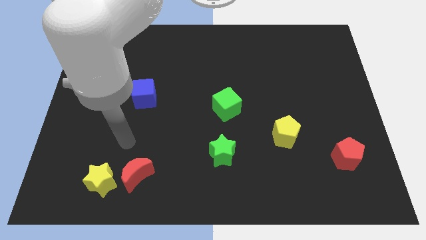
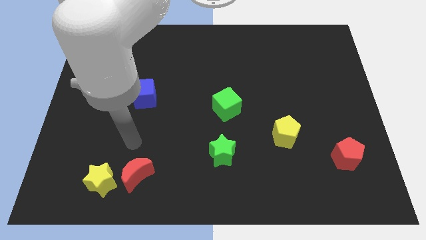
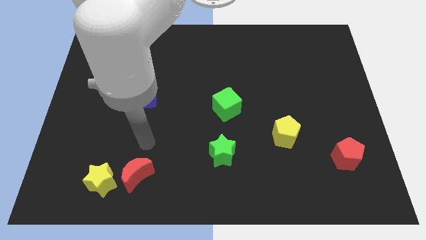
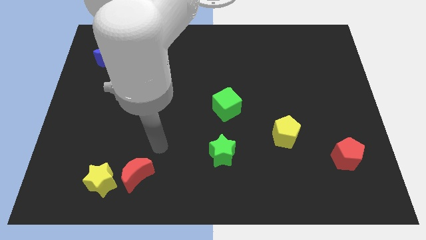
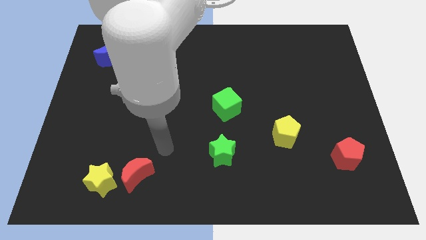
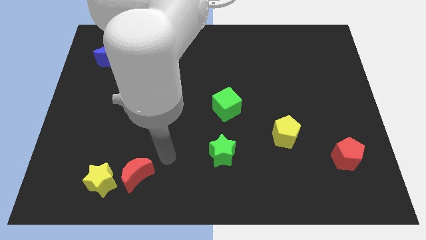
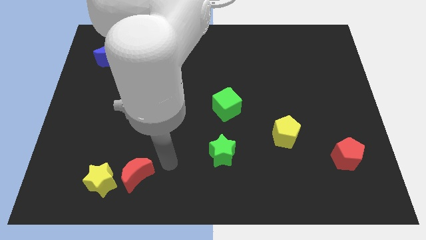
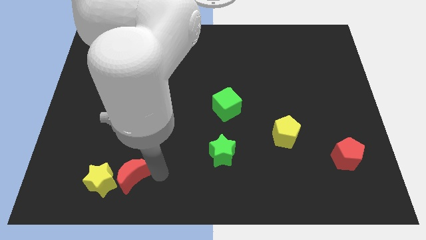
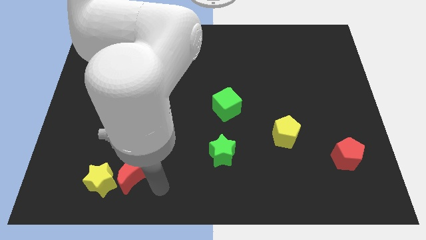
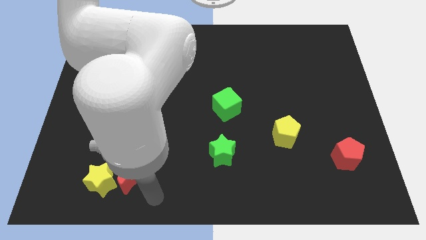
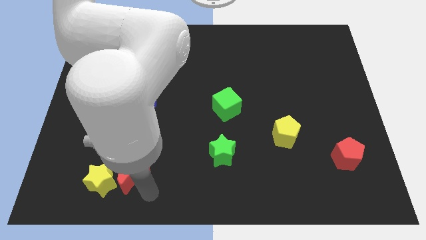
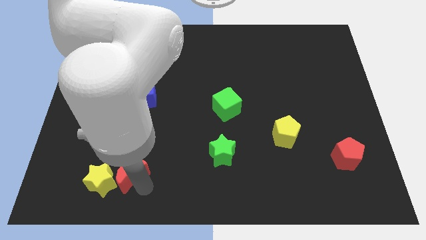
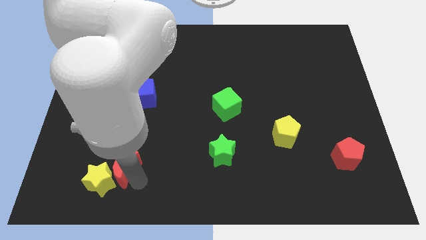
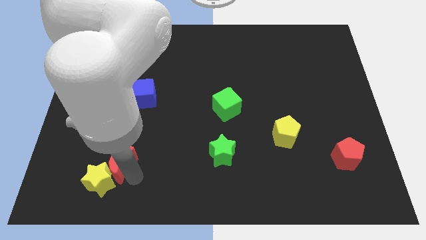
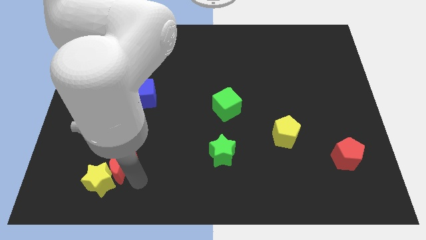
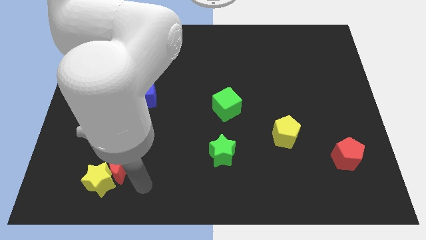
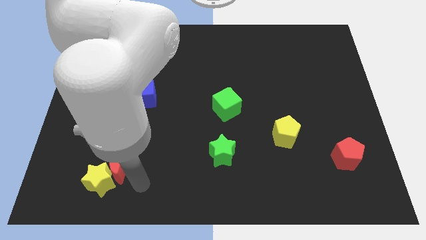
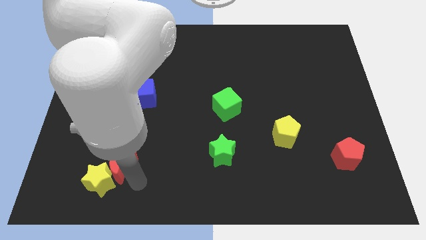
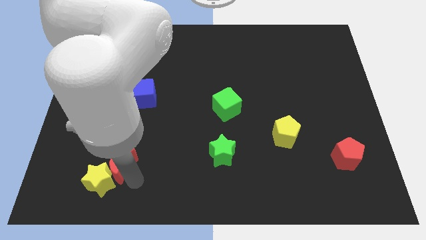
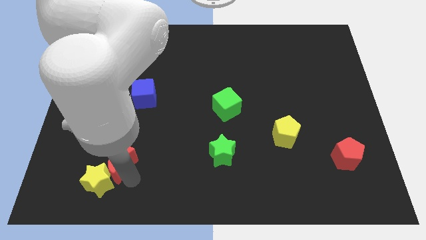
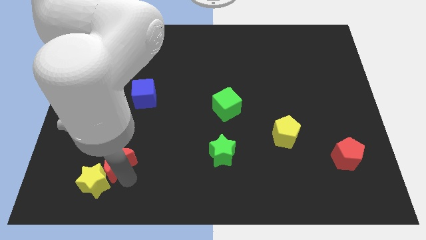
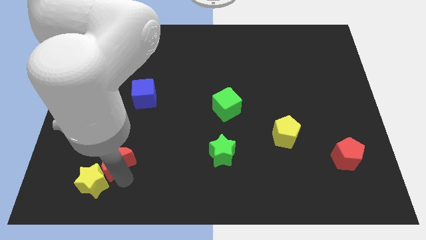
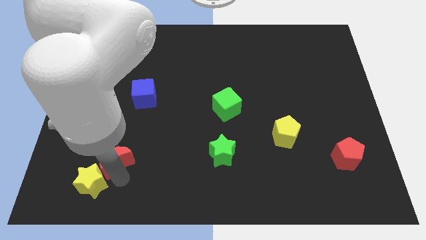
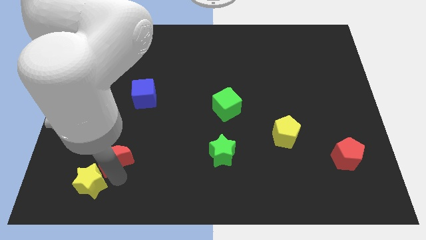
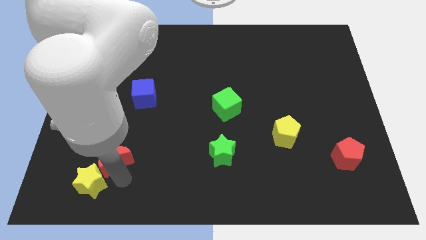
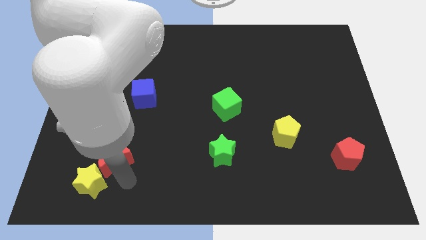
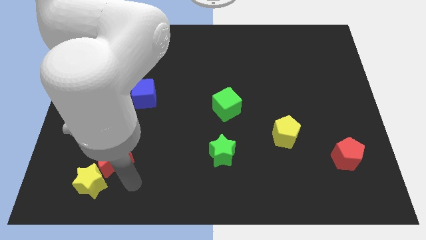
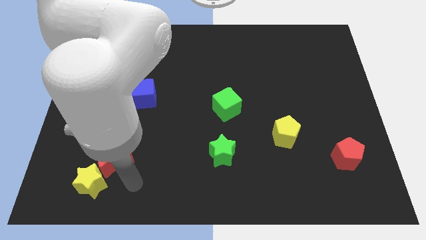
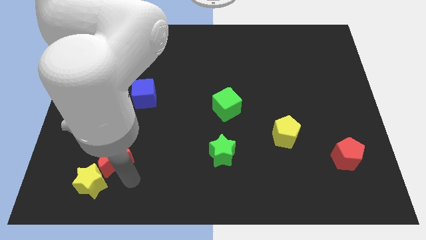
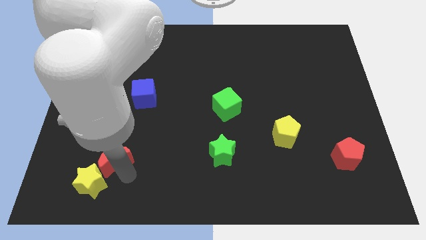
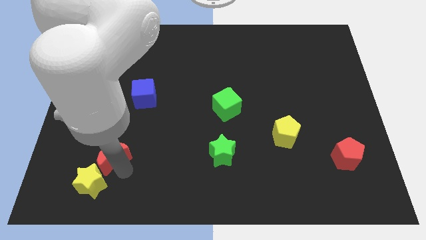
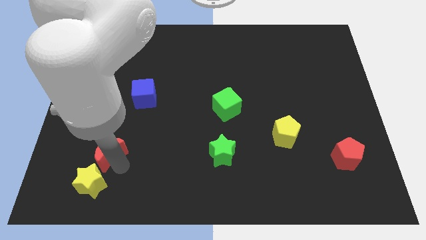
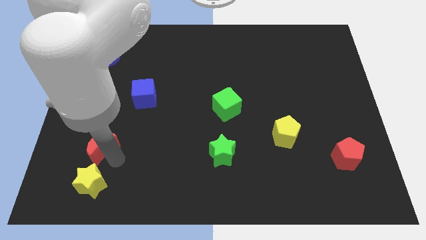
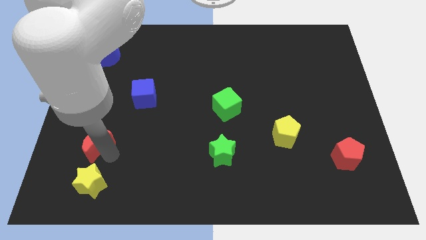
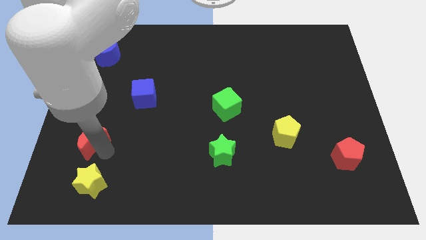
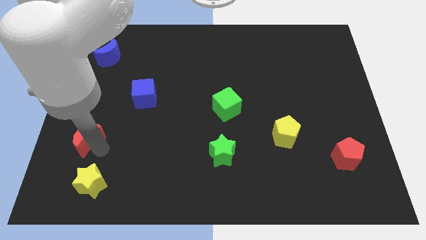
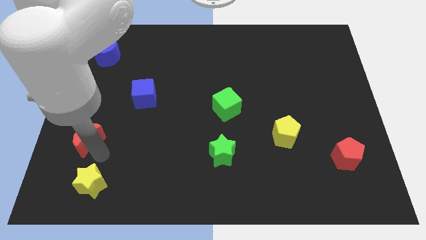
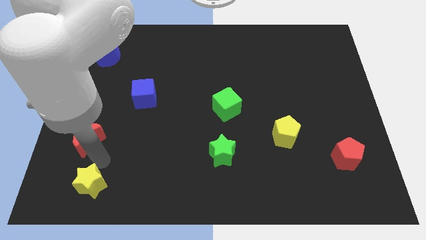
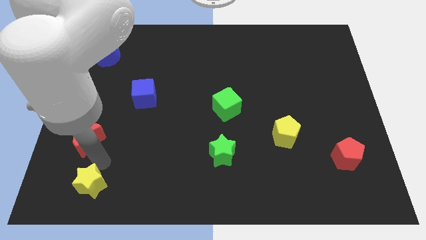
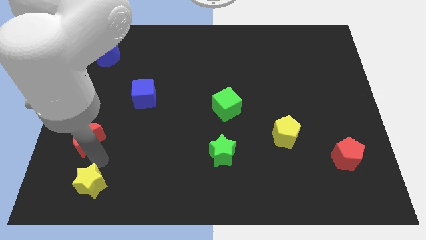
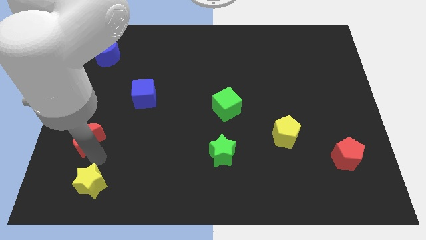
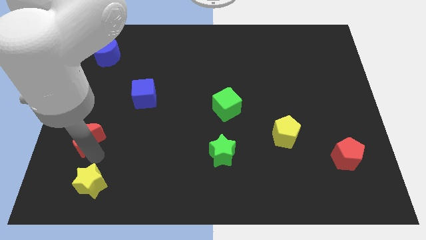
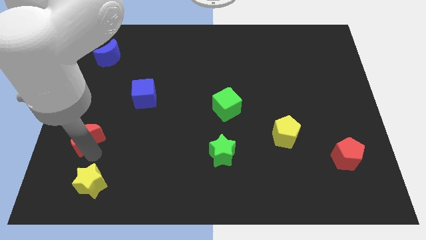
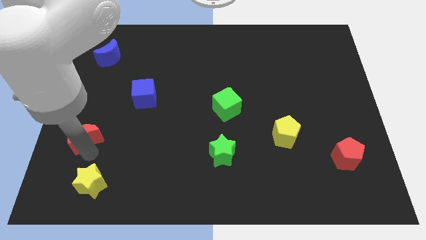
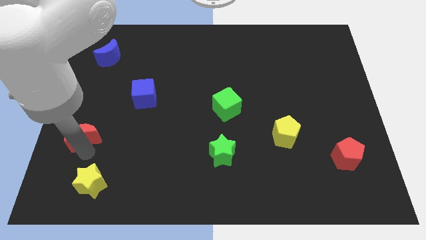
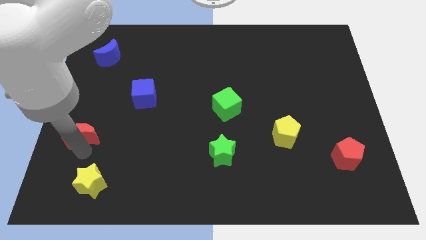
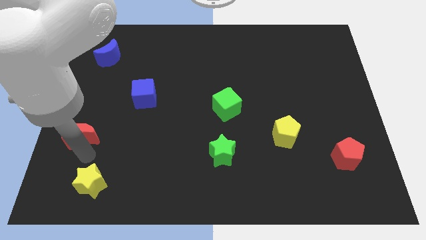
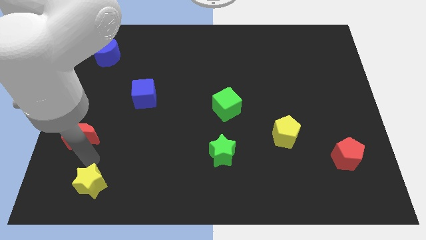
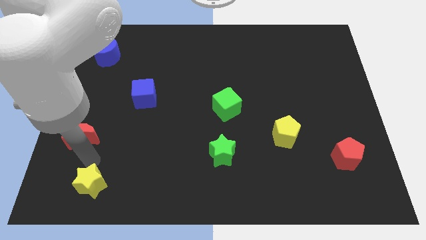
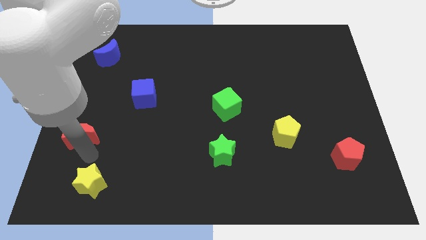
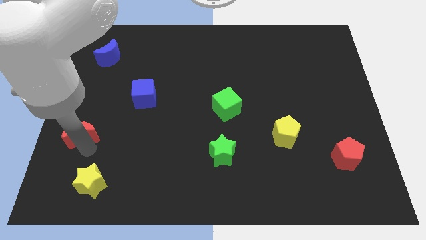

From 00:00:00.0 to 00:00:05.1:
slide the red moon to the center left

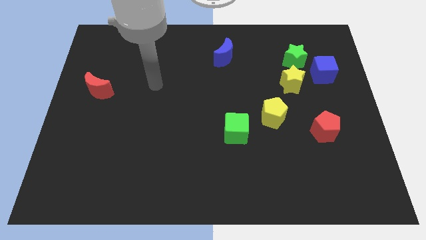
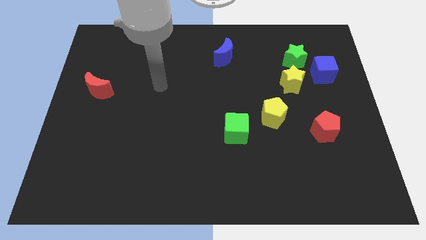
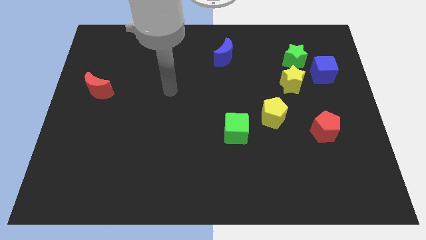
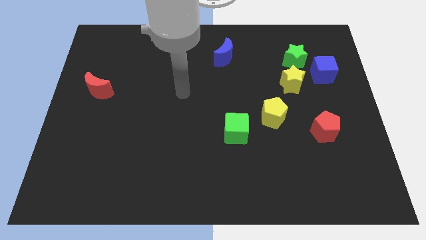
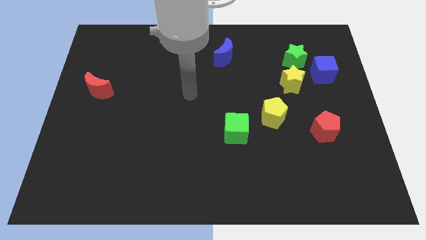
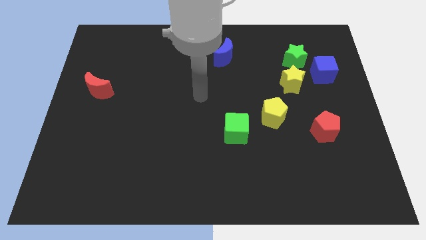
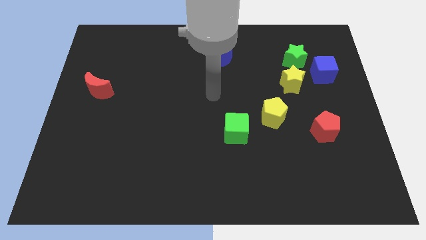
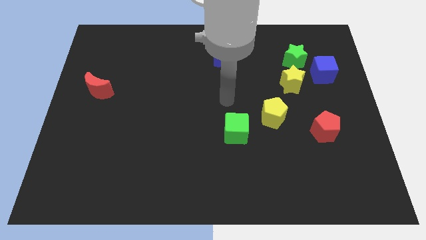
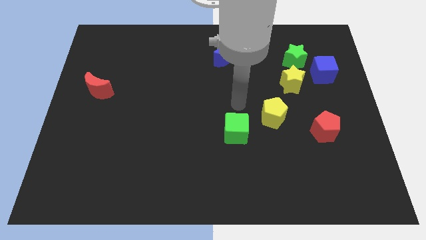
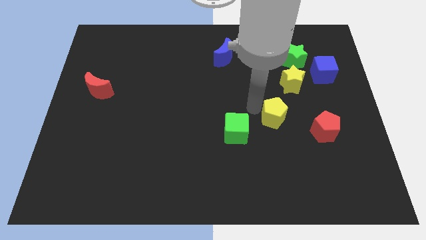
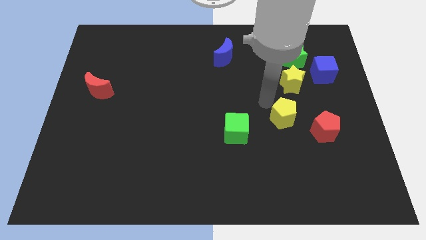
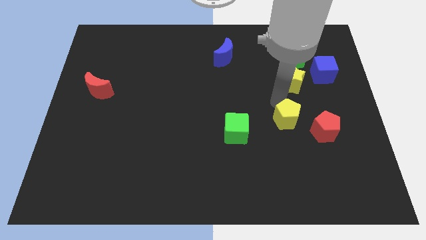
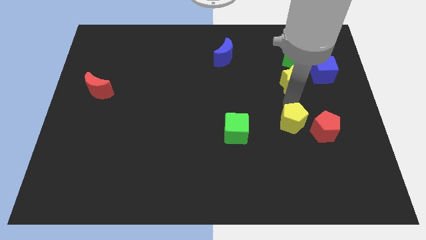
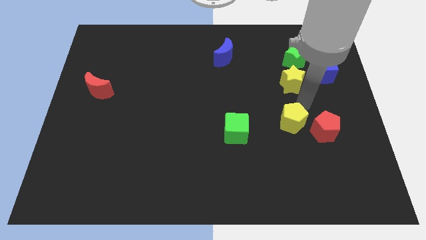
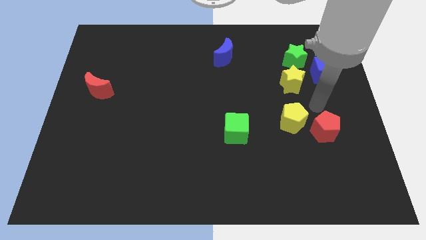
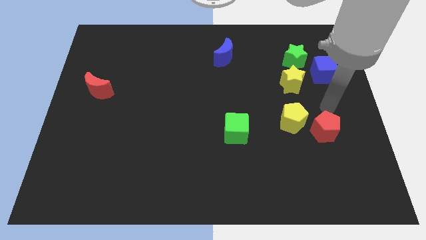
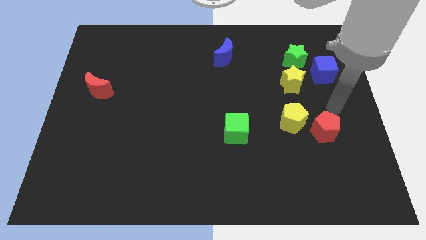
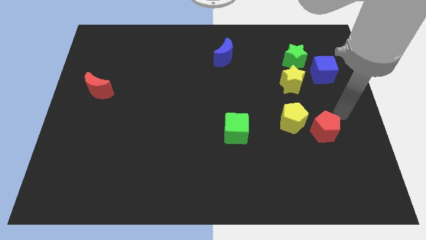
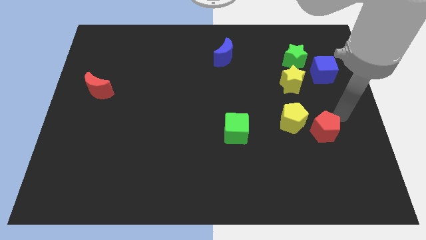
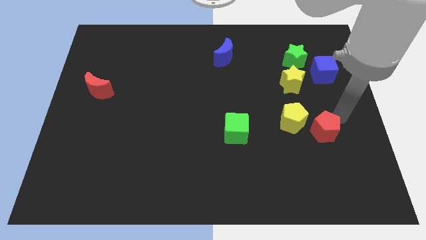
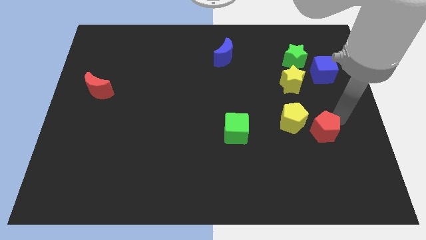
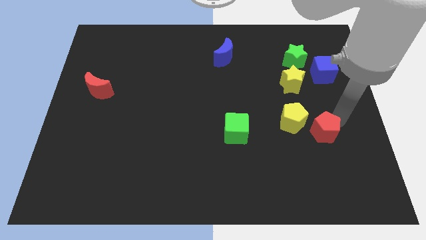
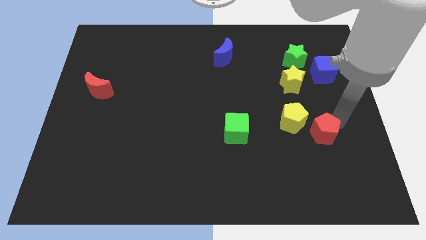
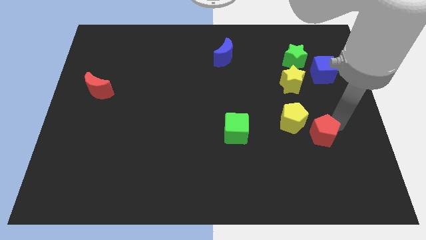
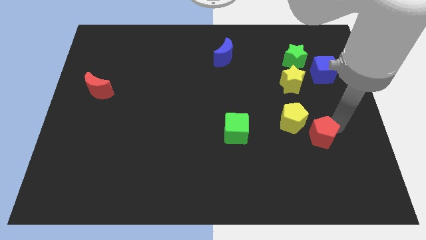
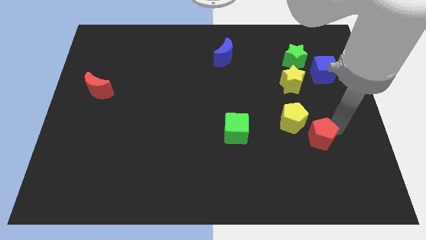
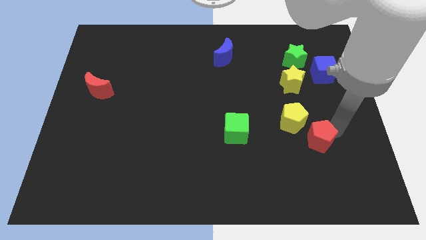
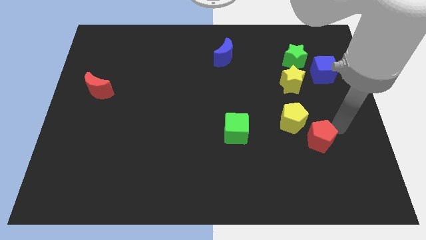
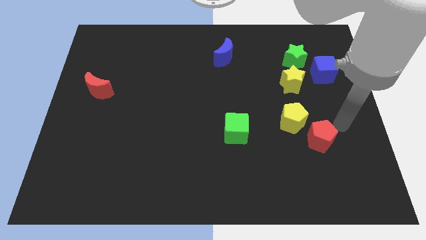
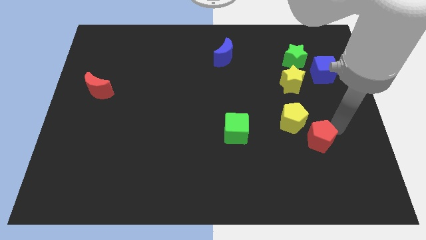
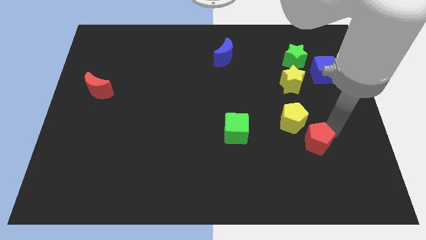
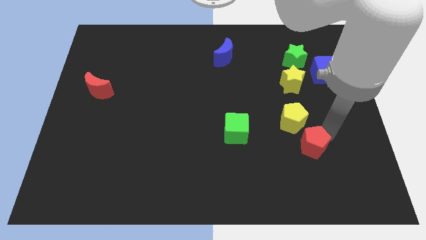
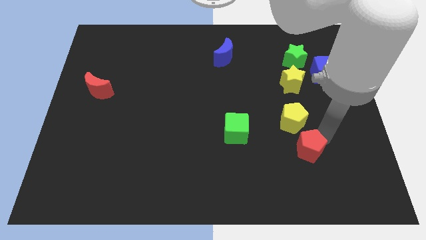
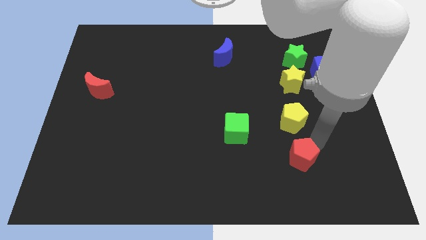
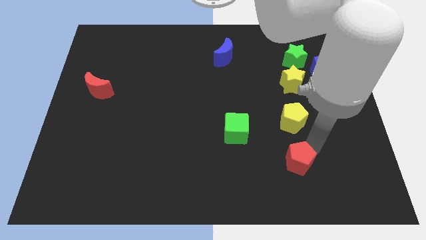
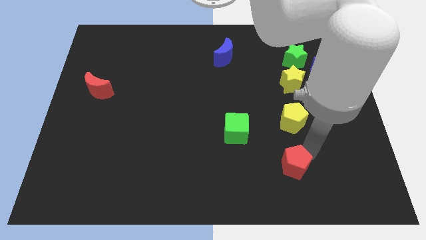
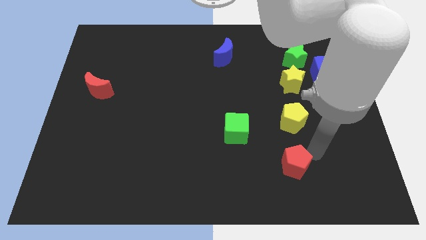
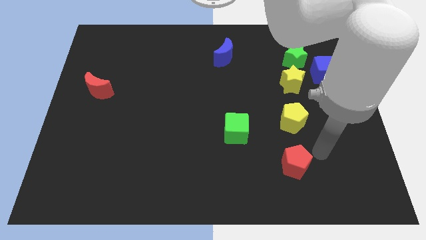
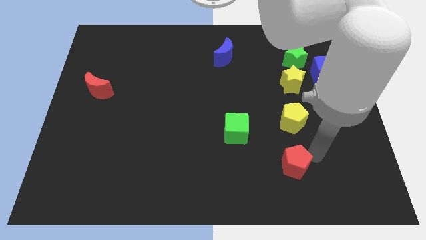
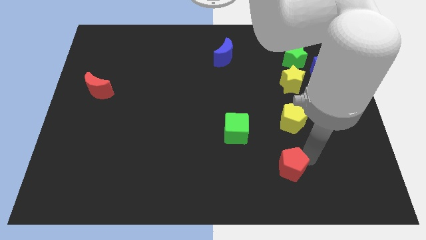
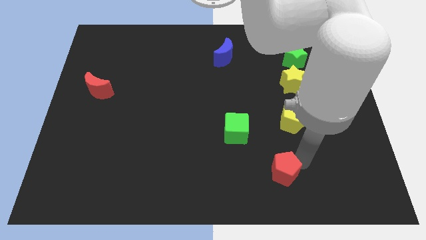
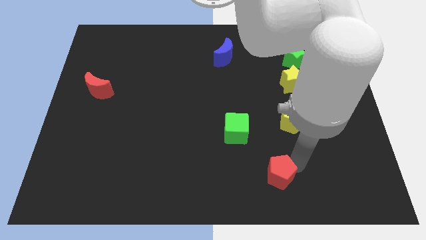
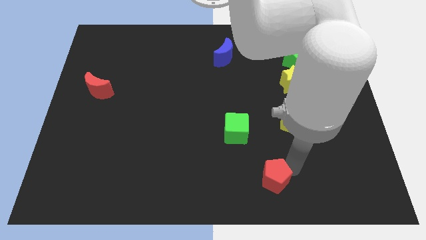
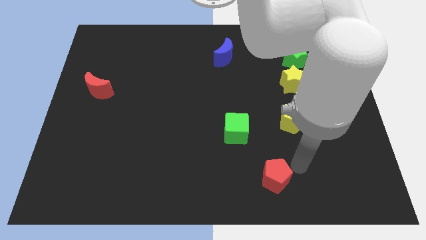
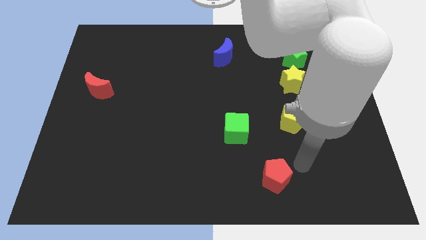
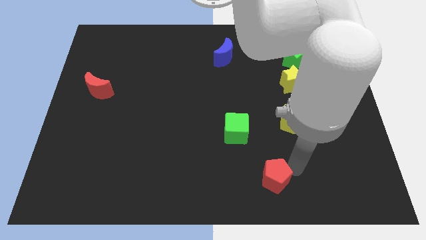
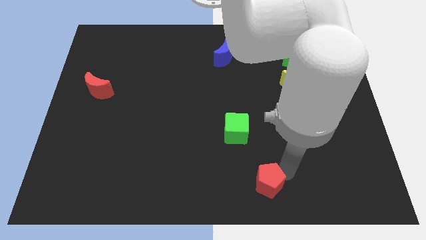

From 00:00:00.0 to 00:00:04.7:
push the red pentagon to the bottom side
